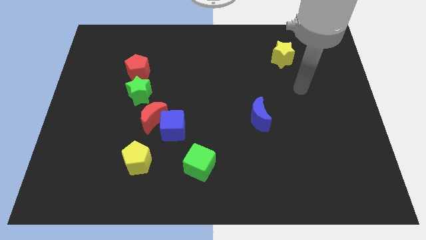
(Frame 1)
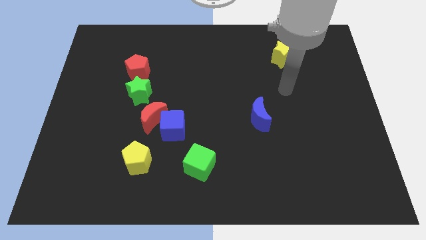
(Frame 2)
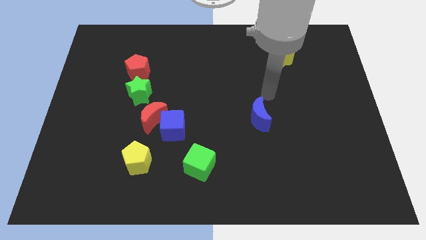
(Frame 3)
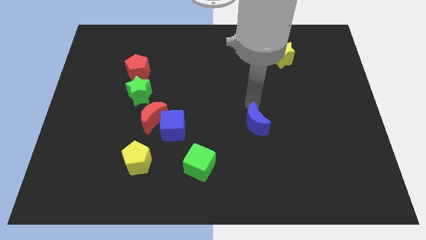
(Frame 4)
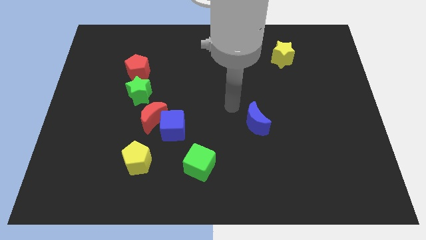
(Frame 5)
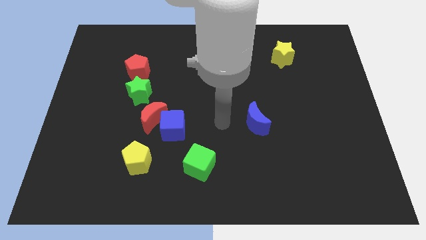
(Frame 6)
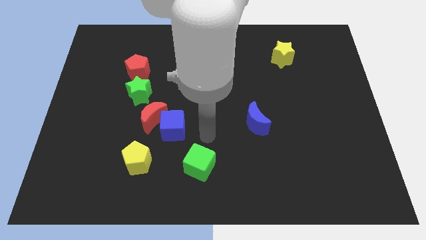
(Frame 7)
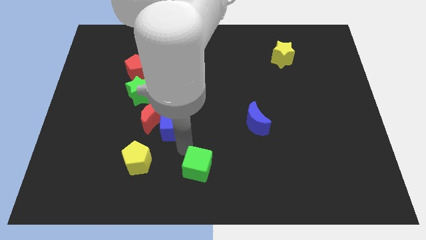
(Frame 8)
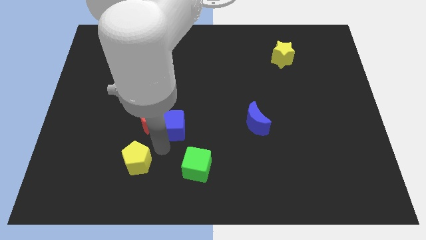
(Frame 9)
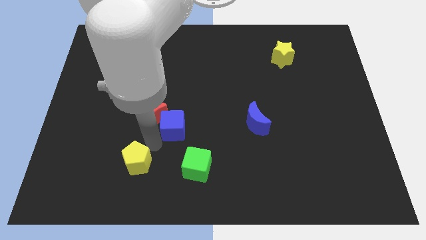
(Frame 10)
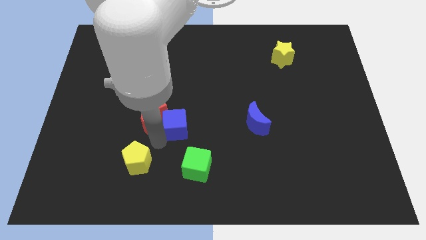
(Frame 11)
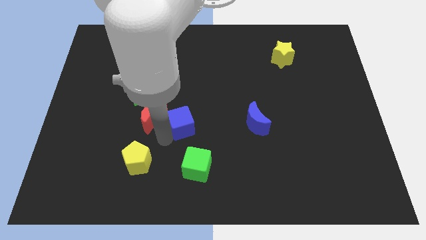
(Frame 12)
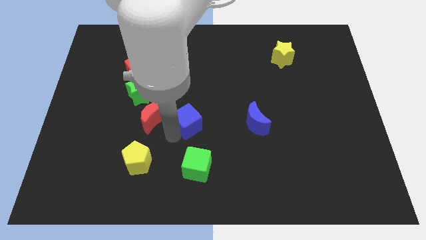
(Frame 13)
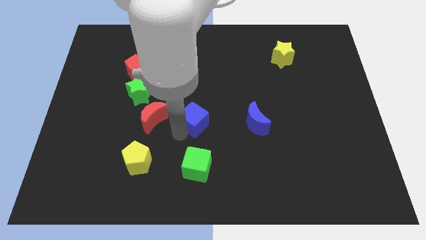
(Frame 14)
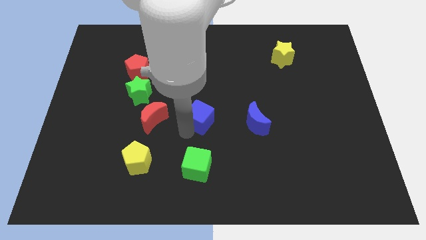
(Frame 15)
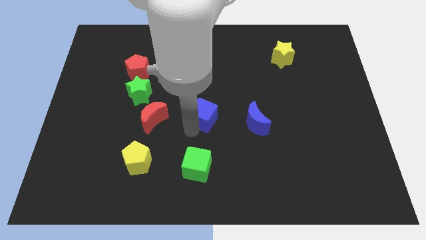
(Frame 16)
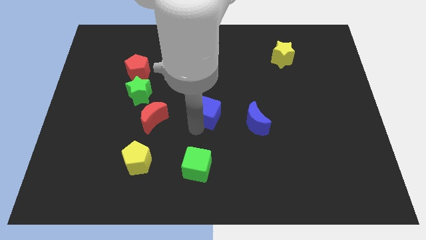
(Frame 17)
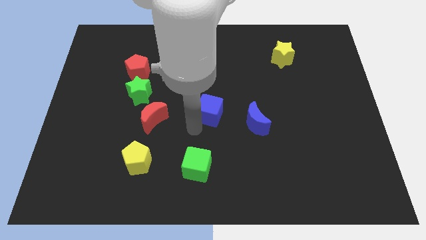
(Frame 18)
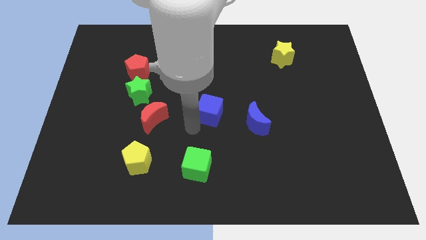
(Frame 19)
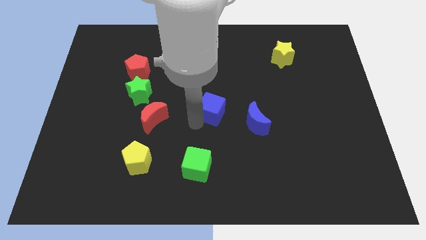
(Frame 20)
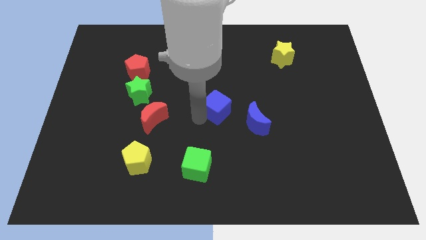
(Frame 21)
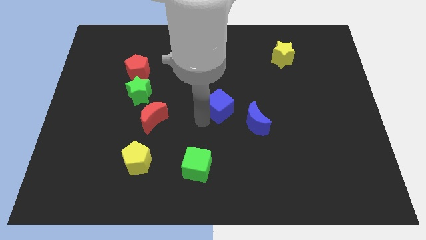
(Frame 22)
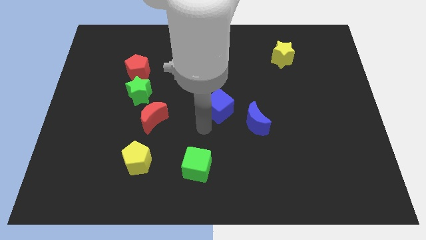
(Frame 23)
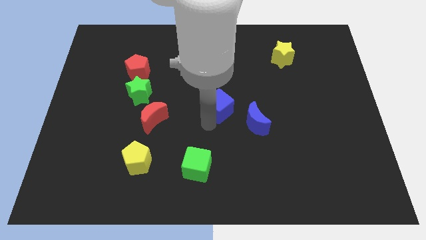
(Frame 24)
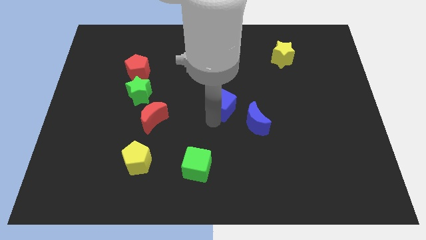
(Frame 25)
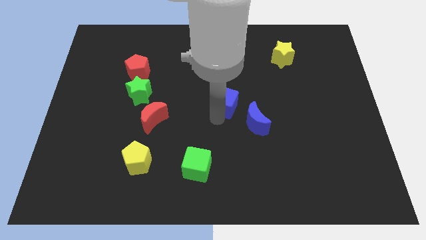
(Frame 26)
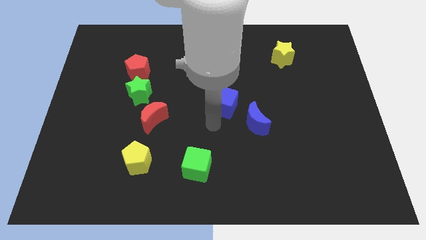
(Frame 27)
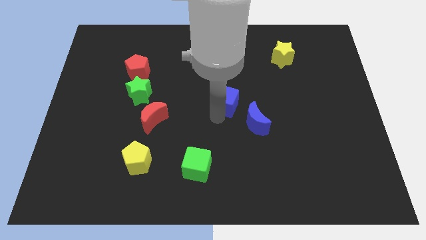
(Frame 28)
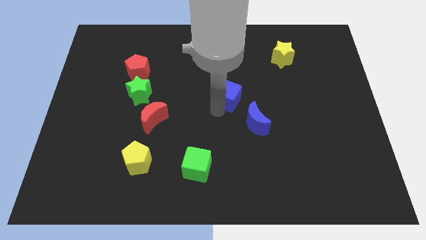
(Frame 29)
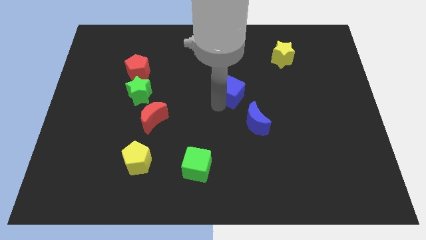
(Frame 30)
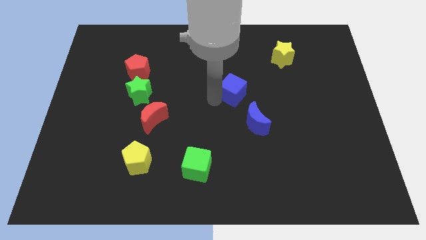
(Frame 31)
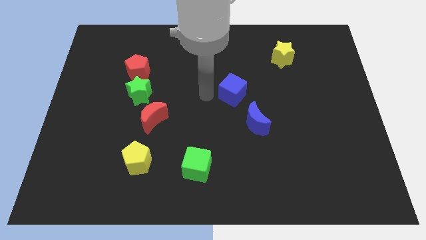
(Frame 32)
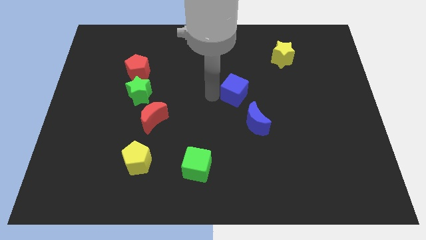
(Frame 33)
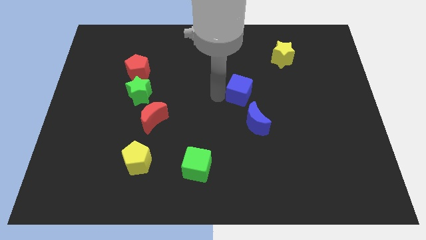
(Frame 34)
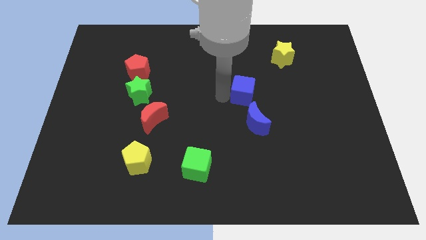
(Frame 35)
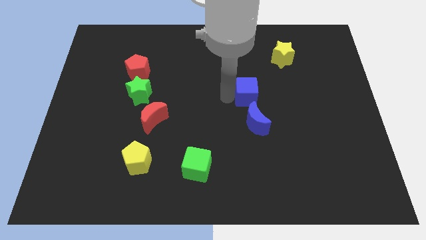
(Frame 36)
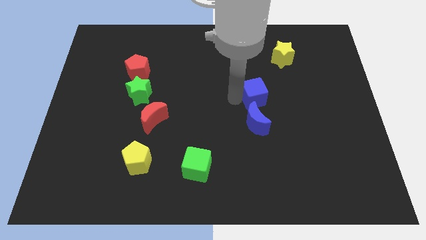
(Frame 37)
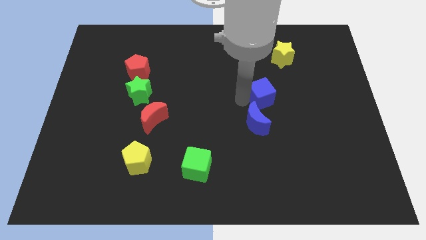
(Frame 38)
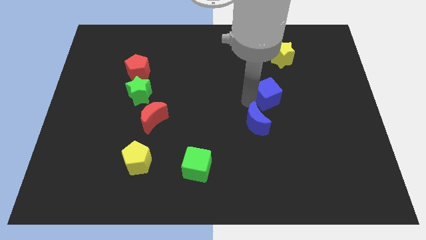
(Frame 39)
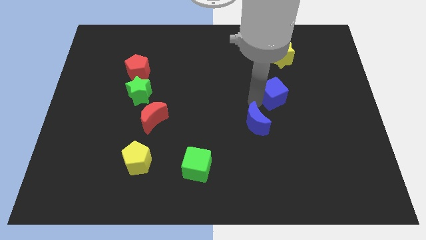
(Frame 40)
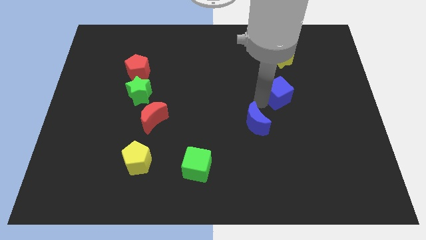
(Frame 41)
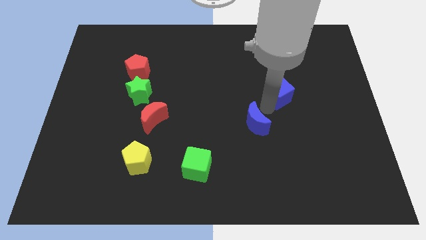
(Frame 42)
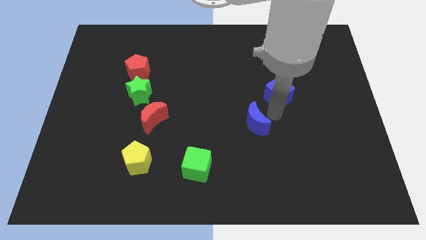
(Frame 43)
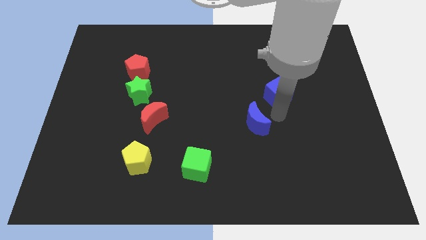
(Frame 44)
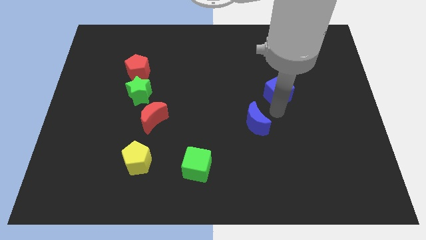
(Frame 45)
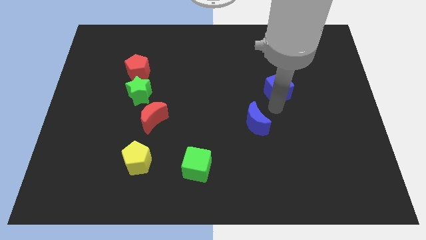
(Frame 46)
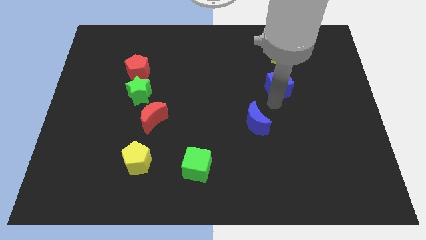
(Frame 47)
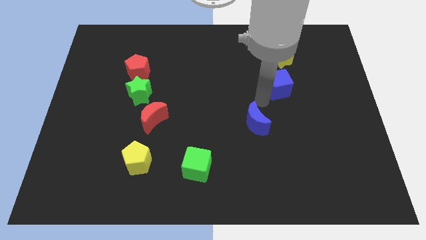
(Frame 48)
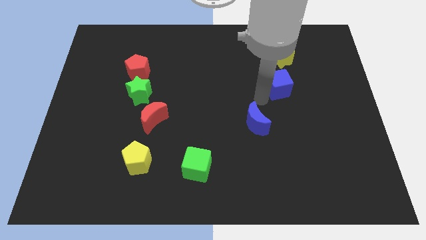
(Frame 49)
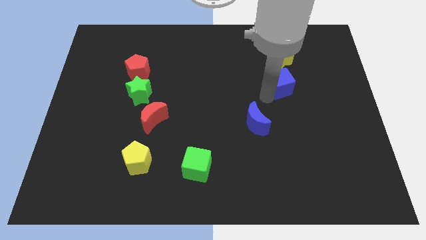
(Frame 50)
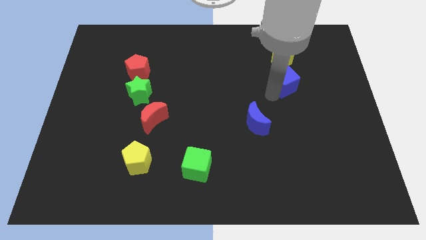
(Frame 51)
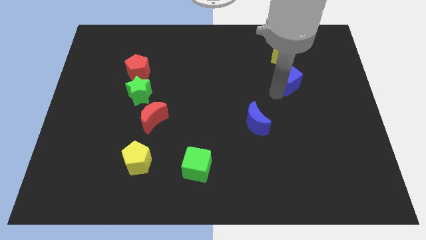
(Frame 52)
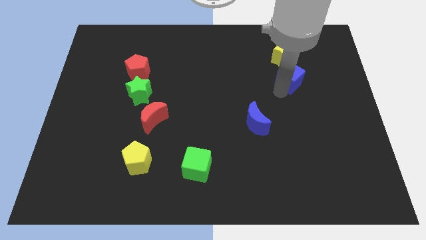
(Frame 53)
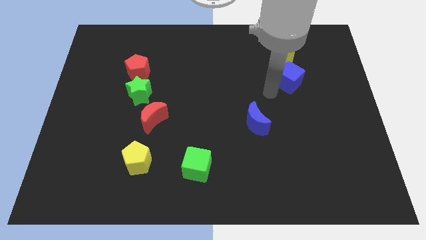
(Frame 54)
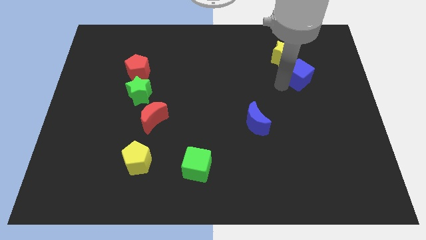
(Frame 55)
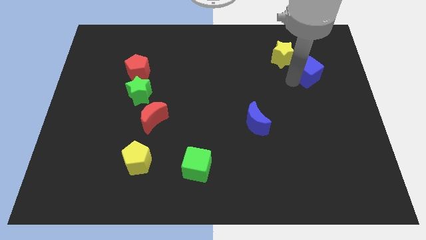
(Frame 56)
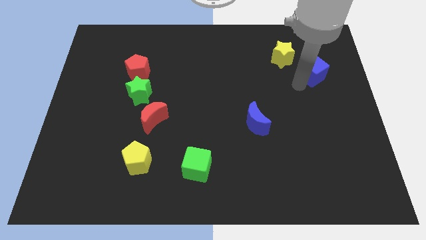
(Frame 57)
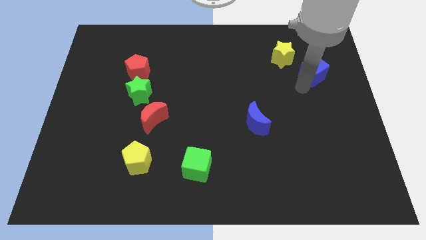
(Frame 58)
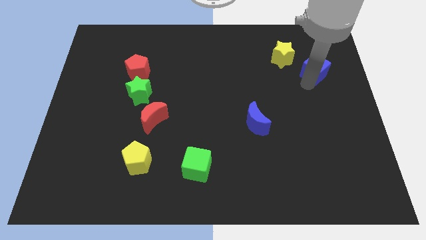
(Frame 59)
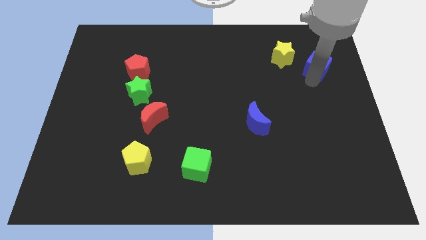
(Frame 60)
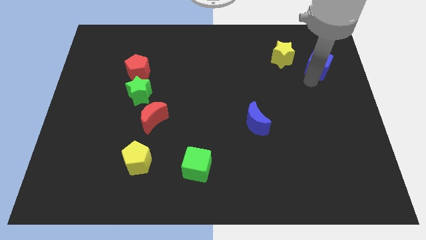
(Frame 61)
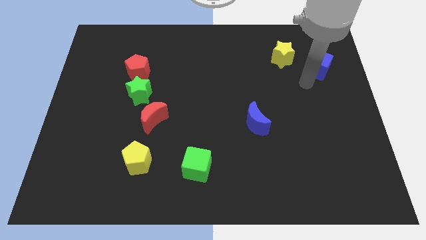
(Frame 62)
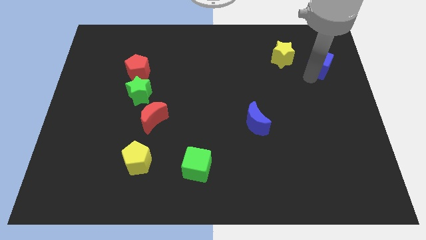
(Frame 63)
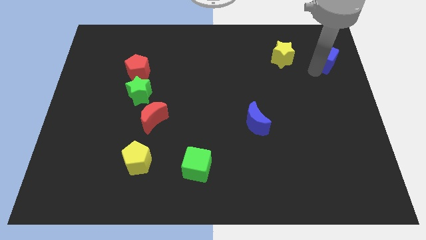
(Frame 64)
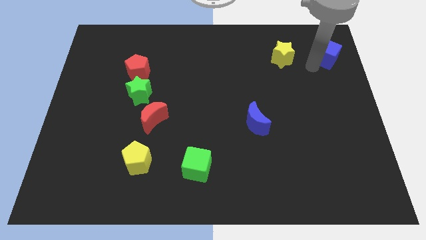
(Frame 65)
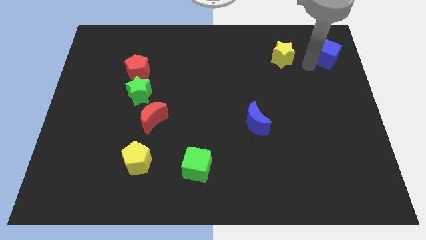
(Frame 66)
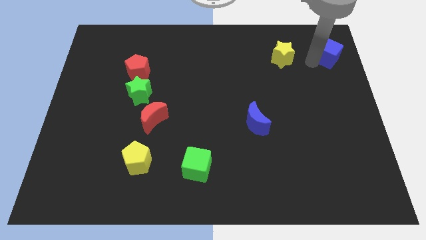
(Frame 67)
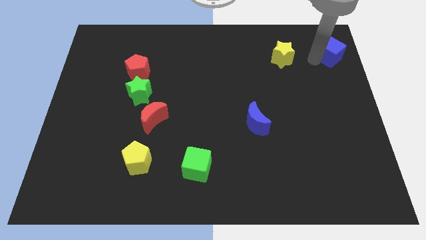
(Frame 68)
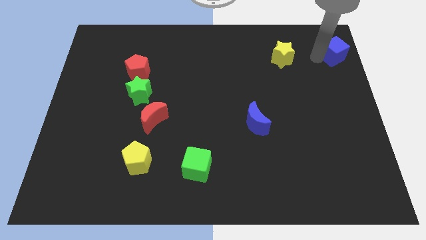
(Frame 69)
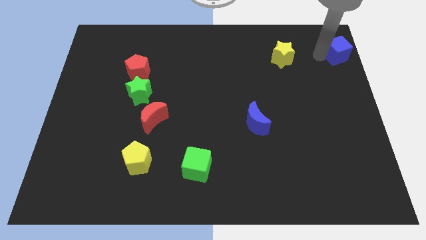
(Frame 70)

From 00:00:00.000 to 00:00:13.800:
slide the blue cube to the top right corner

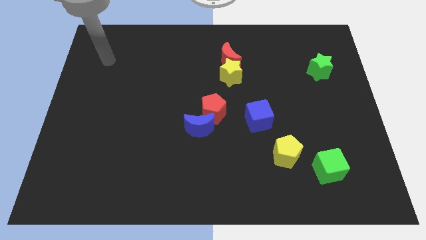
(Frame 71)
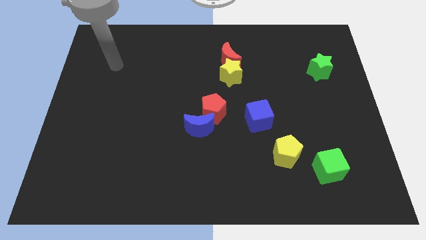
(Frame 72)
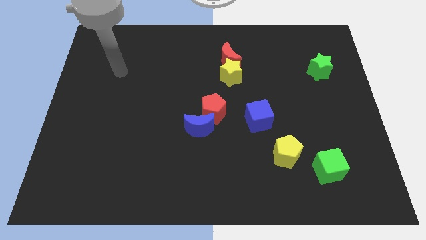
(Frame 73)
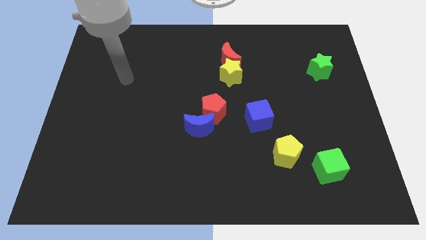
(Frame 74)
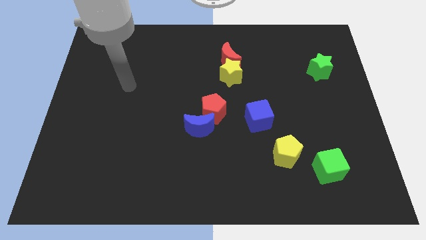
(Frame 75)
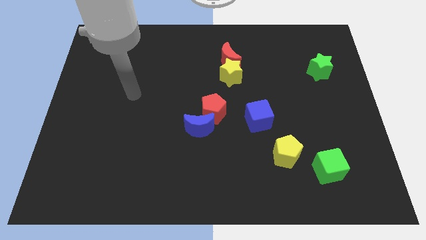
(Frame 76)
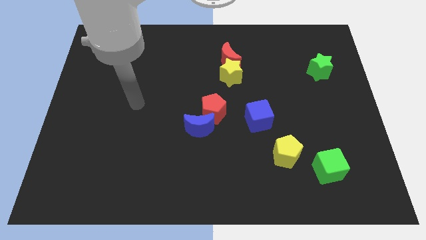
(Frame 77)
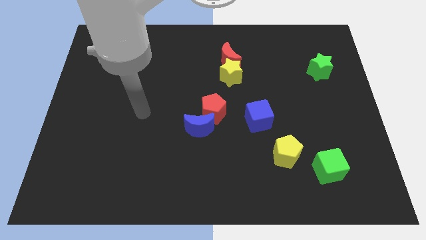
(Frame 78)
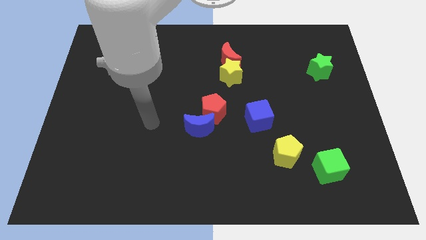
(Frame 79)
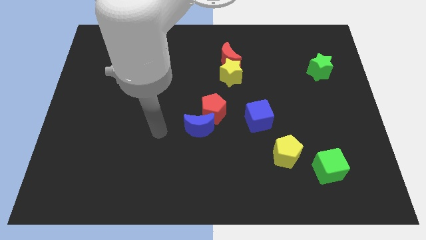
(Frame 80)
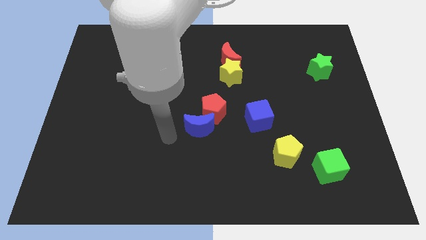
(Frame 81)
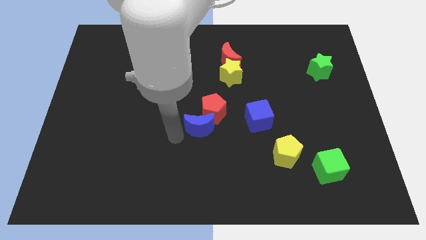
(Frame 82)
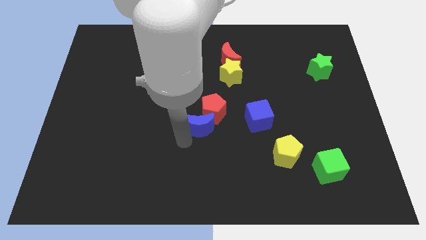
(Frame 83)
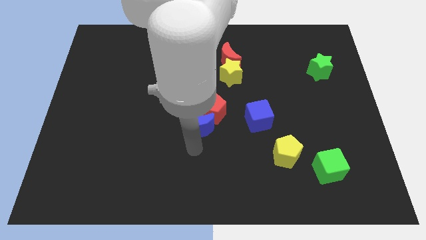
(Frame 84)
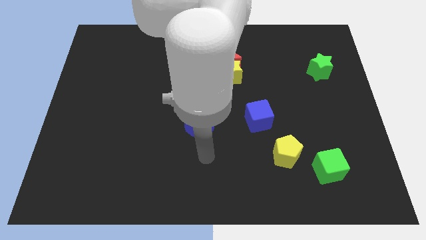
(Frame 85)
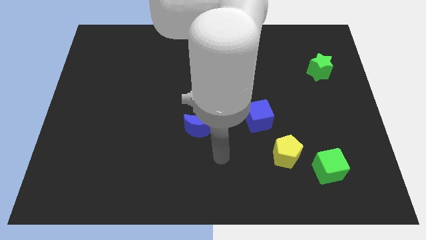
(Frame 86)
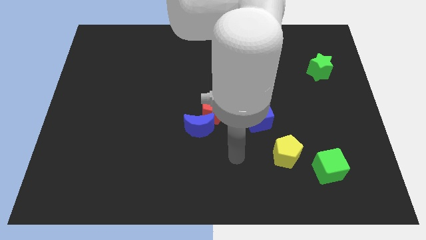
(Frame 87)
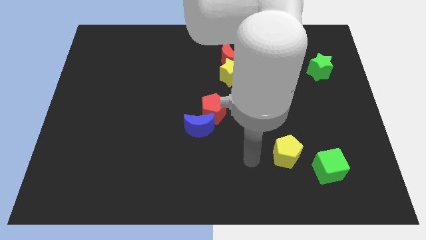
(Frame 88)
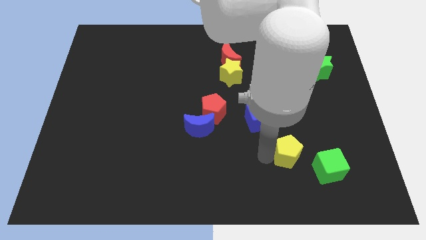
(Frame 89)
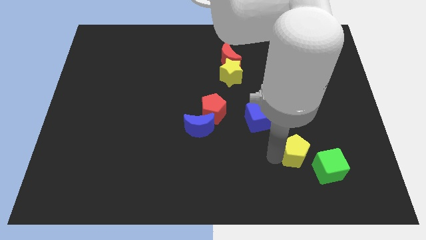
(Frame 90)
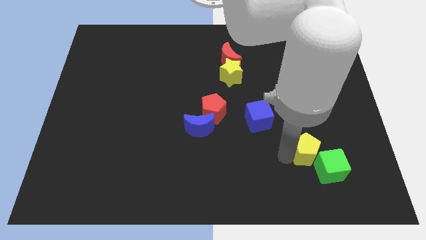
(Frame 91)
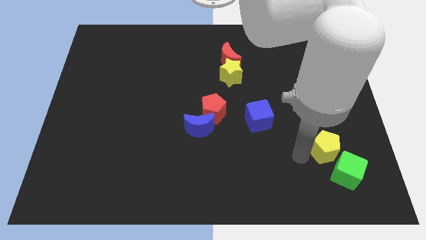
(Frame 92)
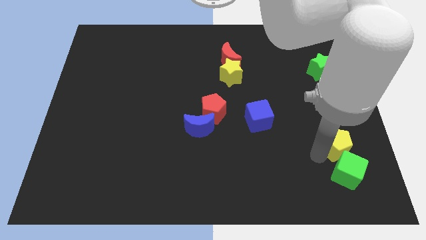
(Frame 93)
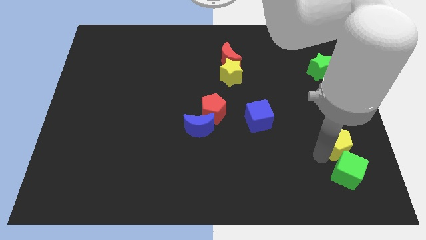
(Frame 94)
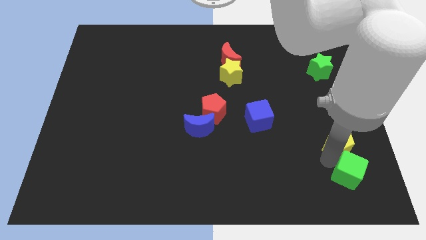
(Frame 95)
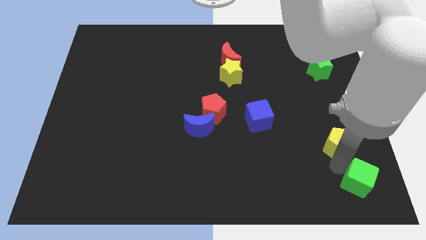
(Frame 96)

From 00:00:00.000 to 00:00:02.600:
put the green cube to the bottom right of the board
